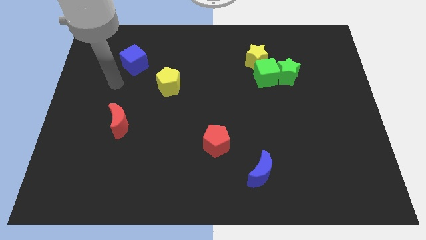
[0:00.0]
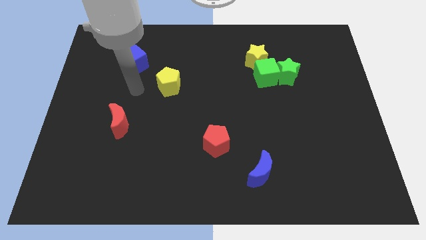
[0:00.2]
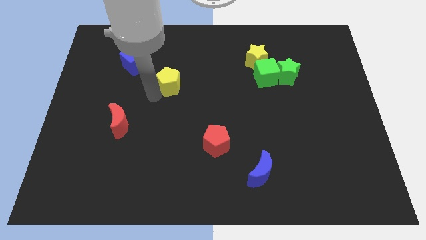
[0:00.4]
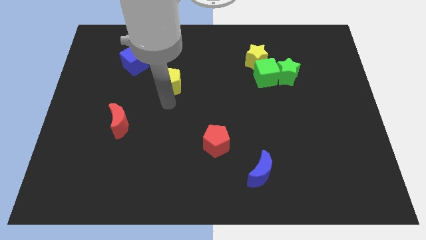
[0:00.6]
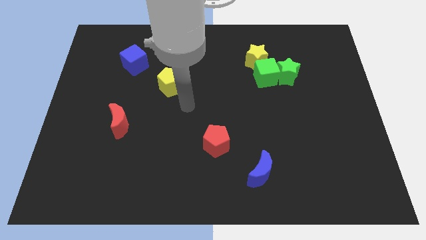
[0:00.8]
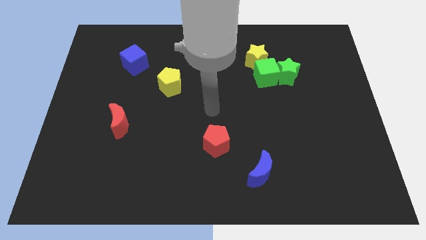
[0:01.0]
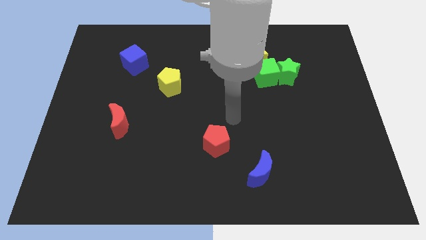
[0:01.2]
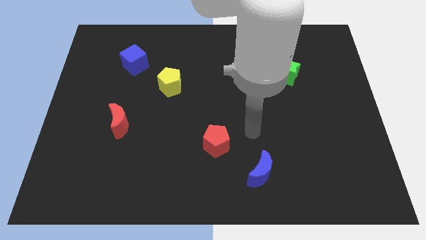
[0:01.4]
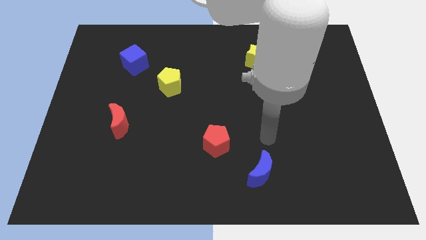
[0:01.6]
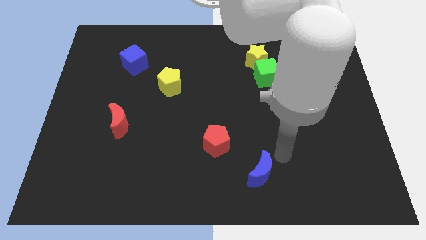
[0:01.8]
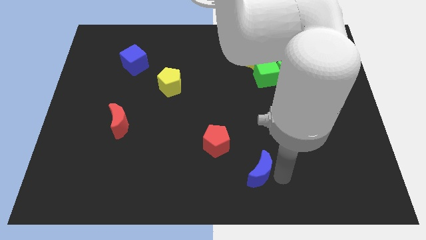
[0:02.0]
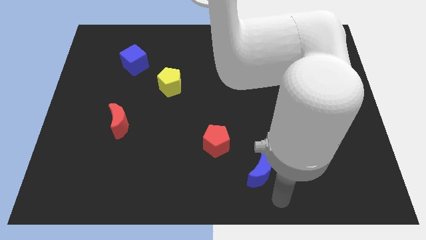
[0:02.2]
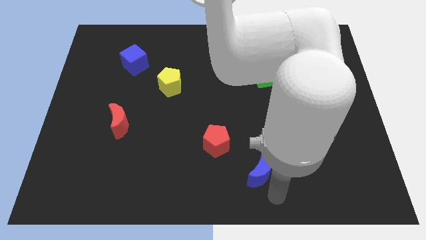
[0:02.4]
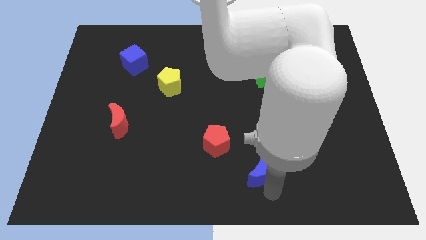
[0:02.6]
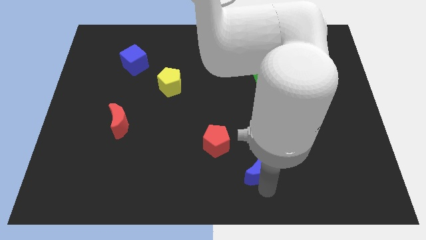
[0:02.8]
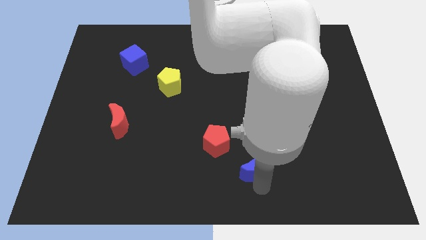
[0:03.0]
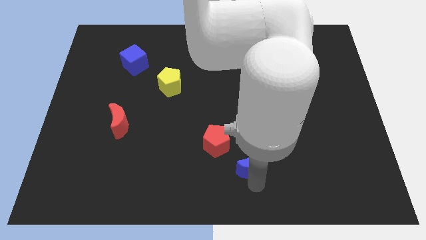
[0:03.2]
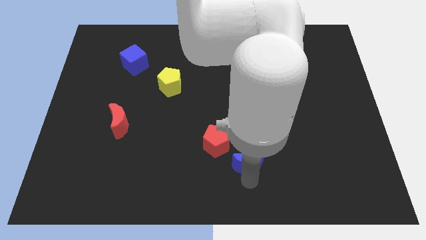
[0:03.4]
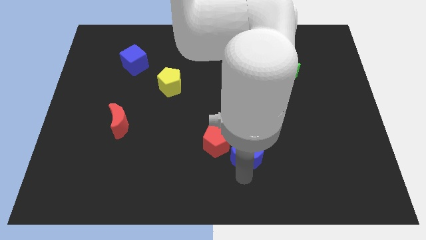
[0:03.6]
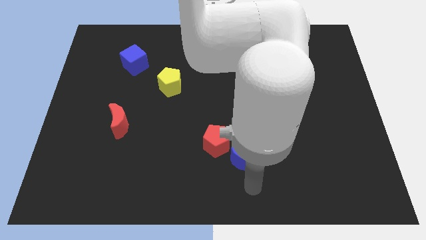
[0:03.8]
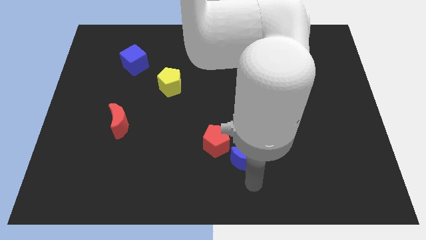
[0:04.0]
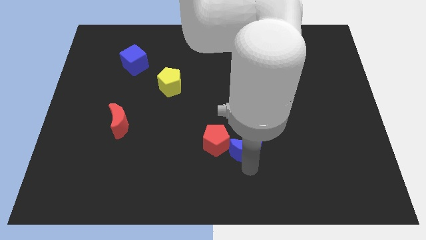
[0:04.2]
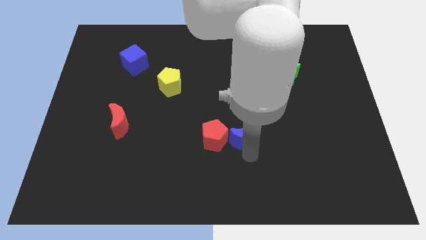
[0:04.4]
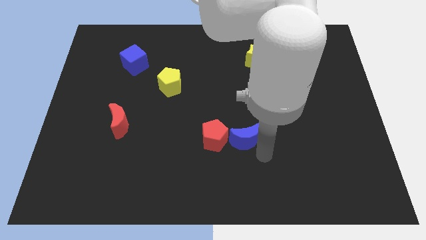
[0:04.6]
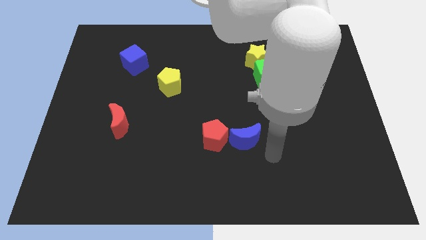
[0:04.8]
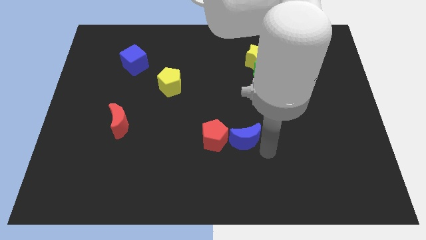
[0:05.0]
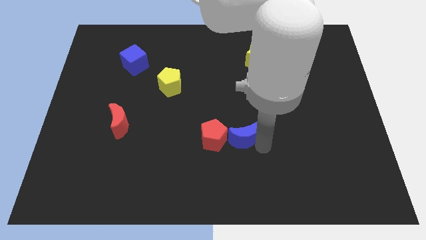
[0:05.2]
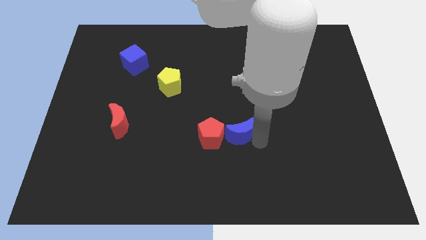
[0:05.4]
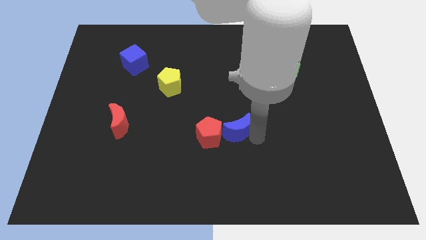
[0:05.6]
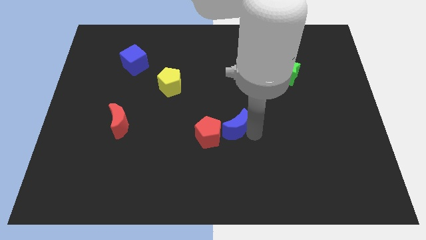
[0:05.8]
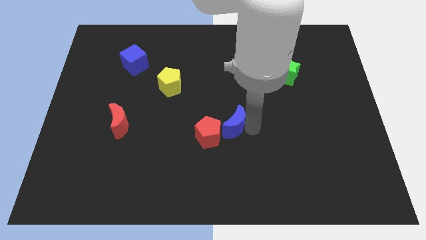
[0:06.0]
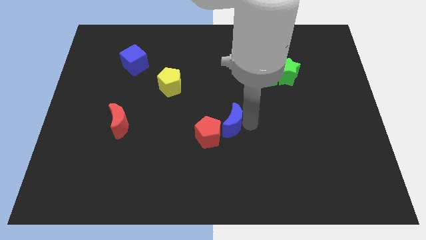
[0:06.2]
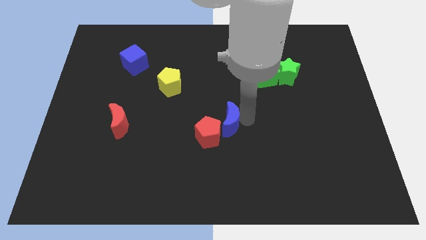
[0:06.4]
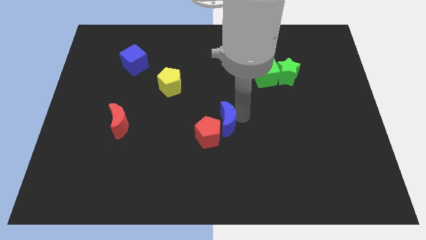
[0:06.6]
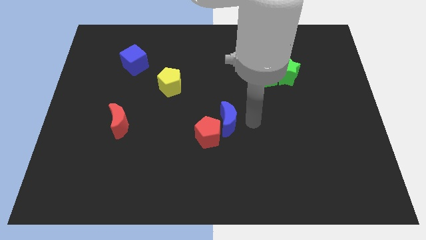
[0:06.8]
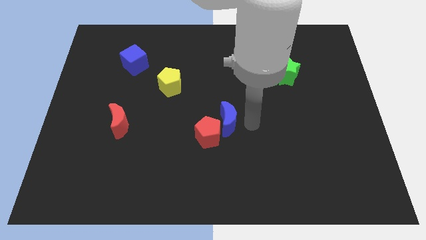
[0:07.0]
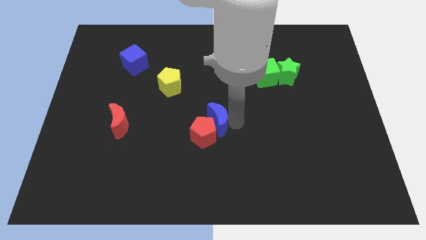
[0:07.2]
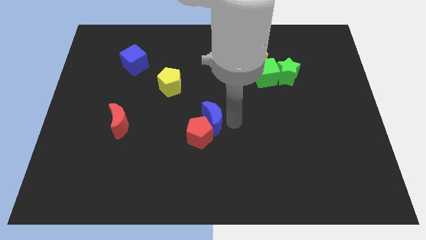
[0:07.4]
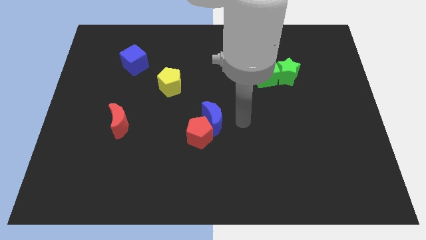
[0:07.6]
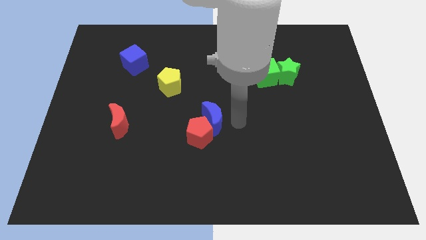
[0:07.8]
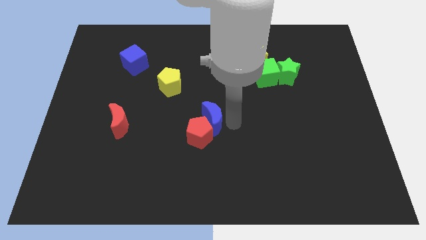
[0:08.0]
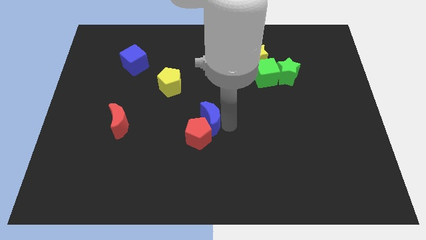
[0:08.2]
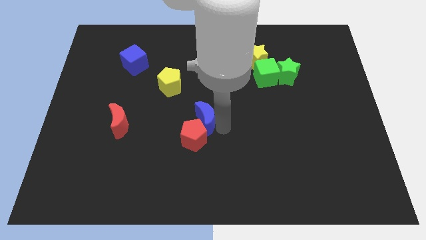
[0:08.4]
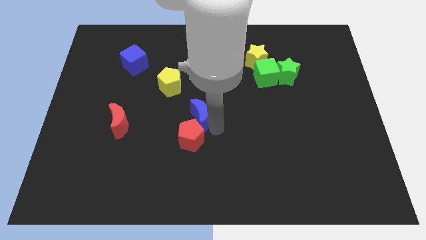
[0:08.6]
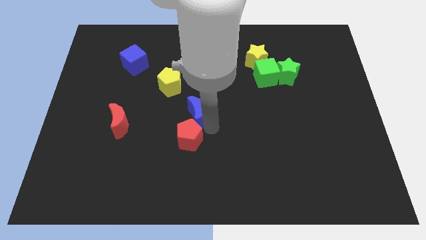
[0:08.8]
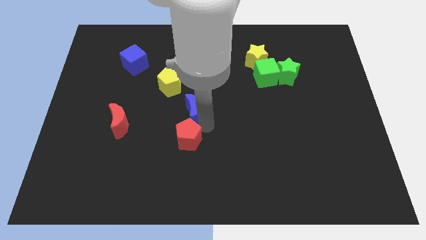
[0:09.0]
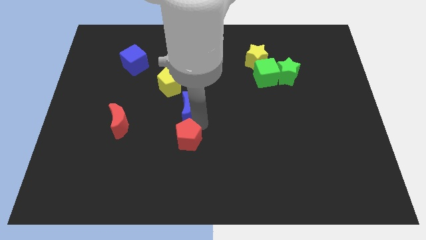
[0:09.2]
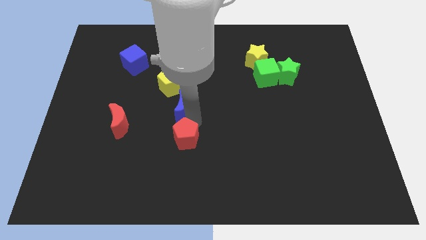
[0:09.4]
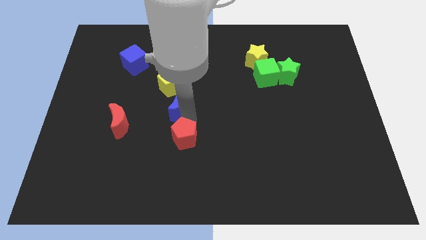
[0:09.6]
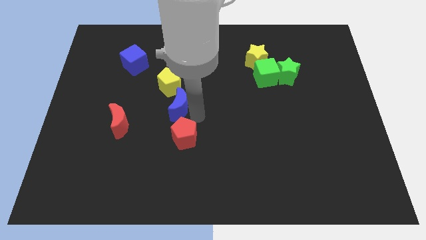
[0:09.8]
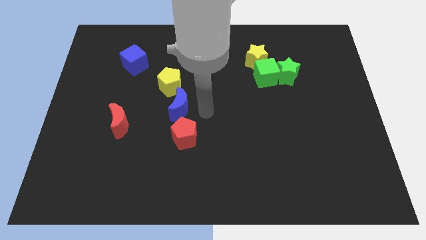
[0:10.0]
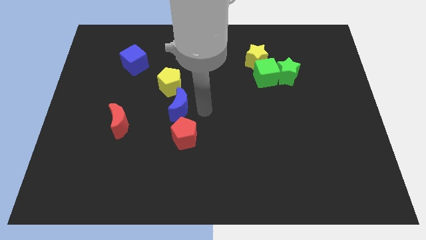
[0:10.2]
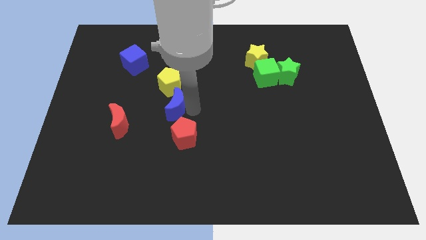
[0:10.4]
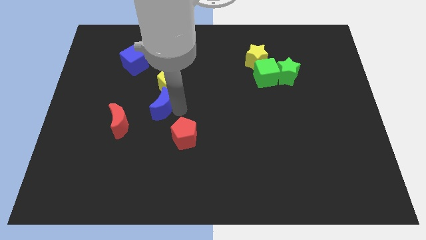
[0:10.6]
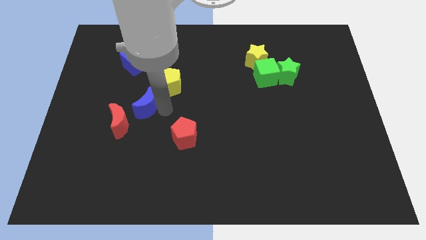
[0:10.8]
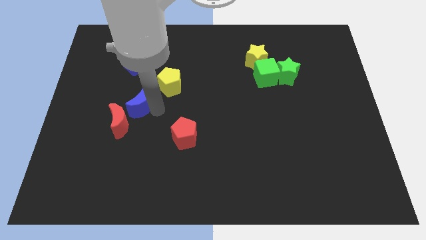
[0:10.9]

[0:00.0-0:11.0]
push the blue moon to the bottom of the blue cube

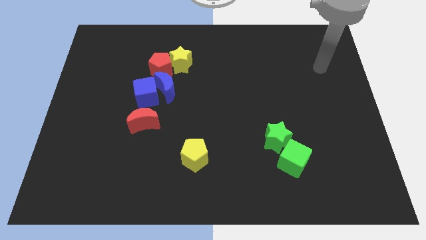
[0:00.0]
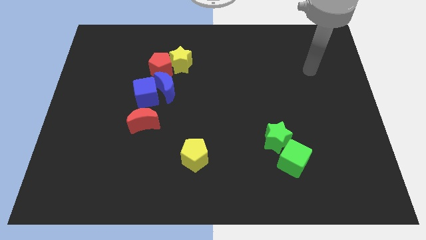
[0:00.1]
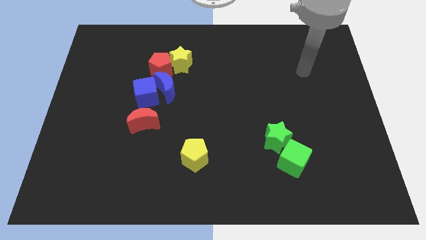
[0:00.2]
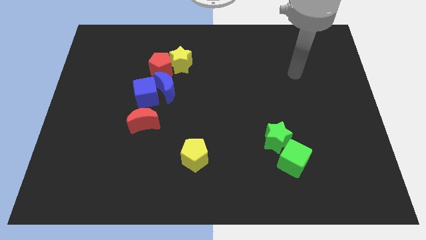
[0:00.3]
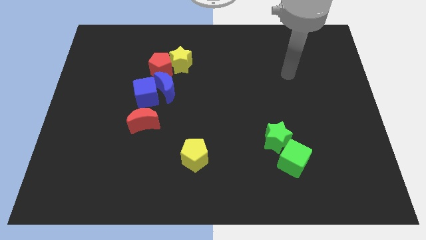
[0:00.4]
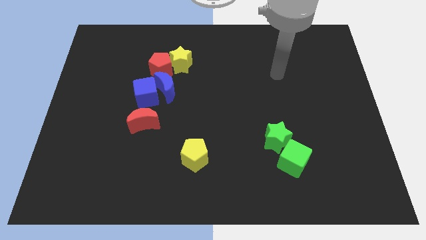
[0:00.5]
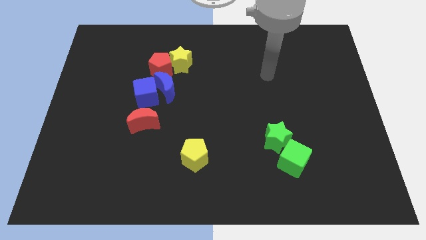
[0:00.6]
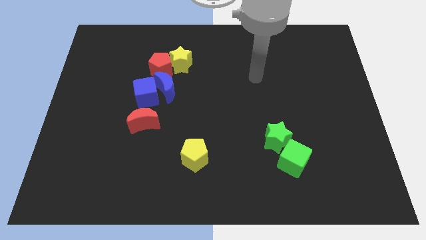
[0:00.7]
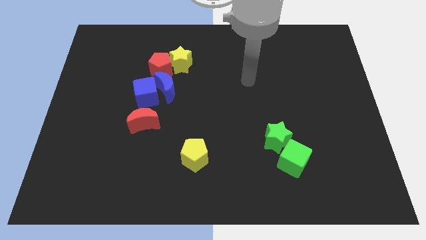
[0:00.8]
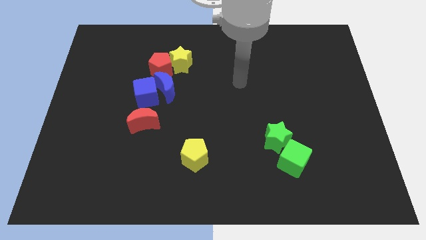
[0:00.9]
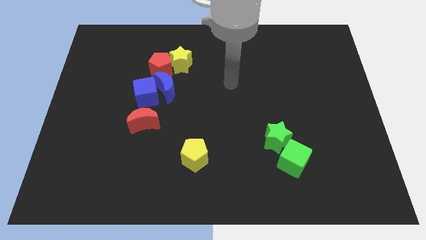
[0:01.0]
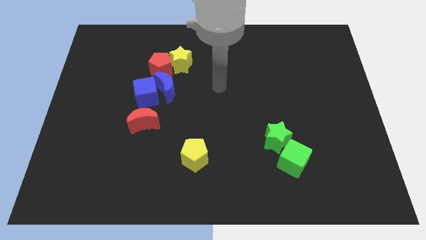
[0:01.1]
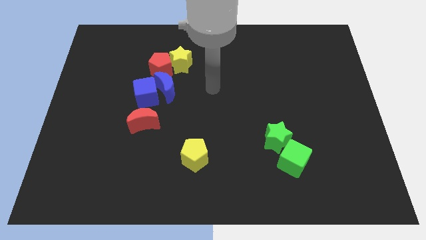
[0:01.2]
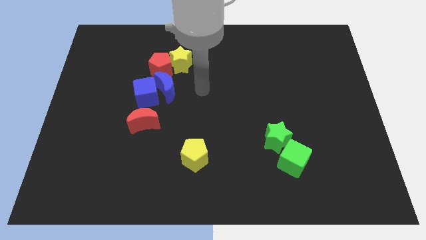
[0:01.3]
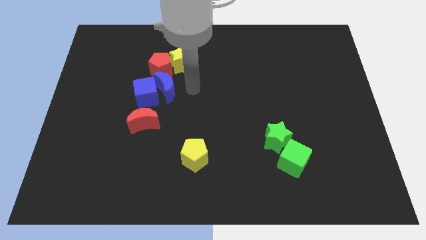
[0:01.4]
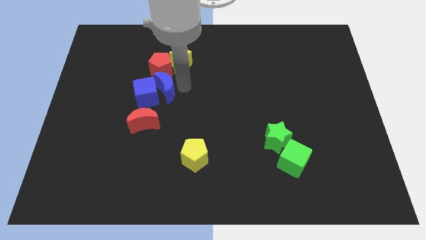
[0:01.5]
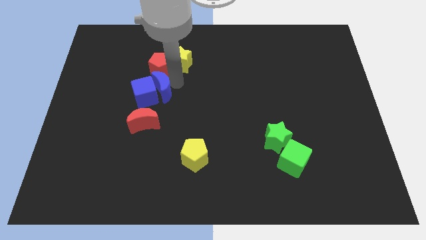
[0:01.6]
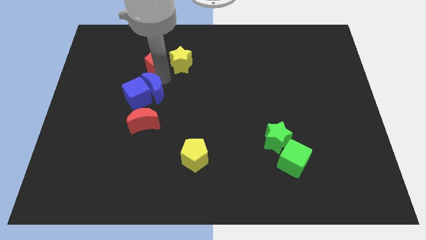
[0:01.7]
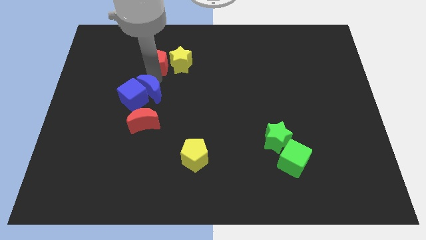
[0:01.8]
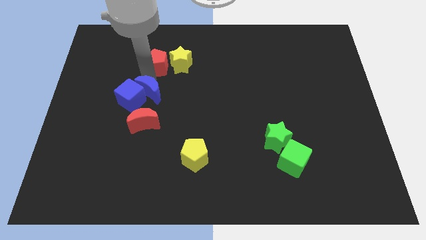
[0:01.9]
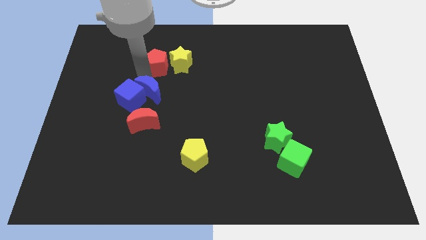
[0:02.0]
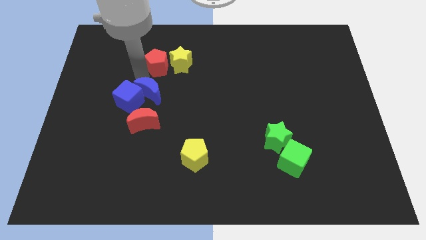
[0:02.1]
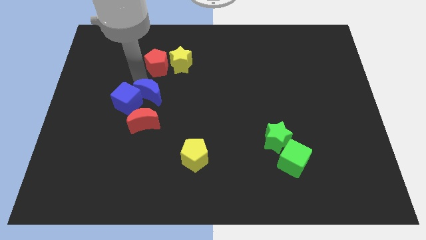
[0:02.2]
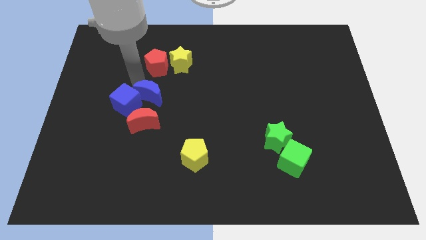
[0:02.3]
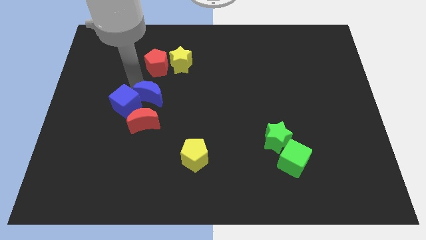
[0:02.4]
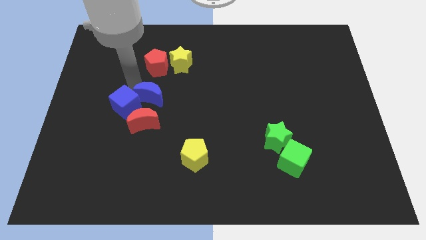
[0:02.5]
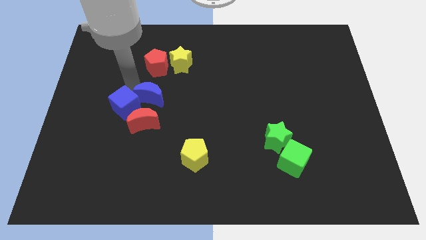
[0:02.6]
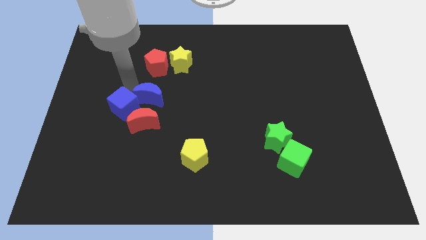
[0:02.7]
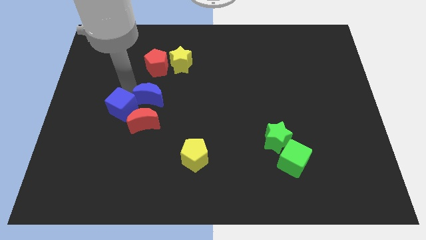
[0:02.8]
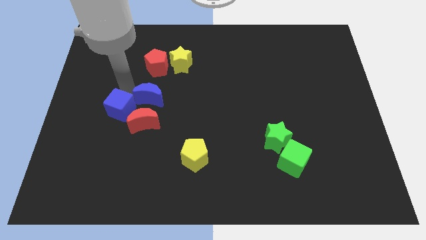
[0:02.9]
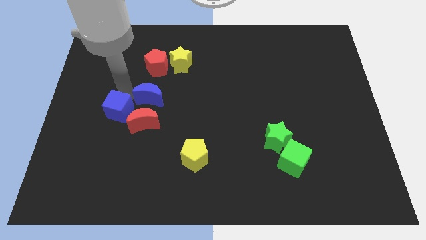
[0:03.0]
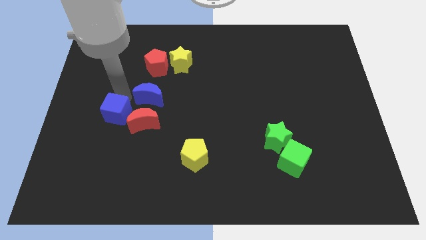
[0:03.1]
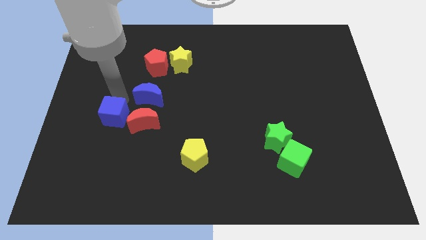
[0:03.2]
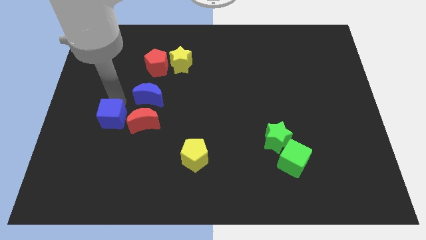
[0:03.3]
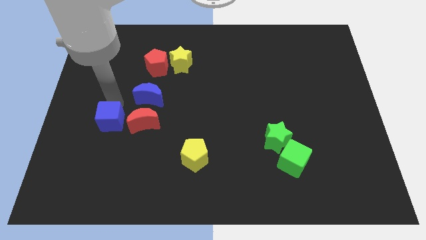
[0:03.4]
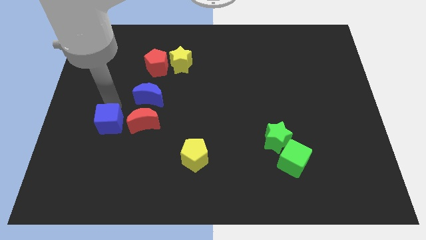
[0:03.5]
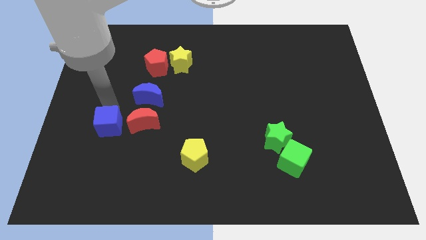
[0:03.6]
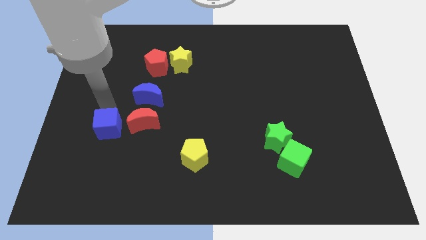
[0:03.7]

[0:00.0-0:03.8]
put the blue cube to the bottom left of the red moon
